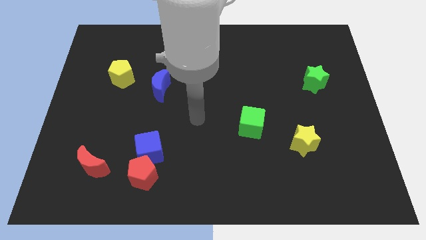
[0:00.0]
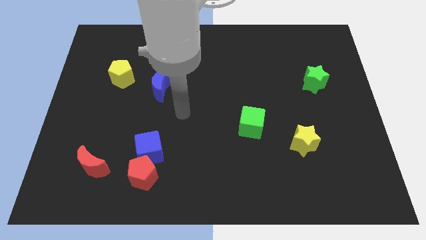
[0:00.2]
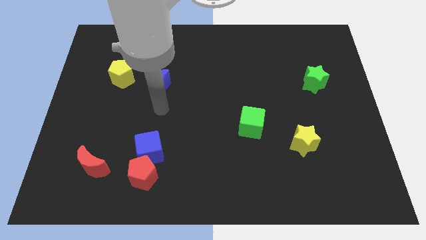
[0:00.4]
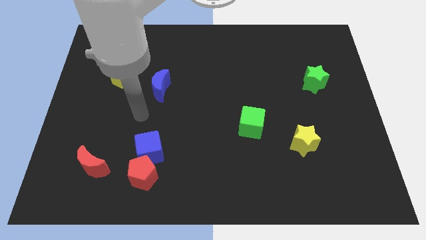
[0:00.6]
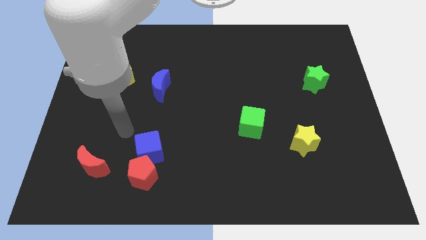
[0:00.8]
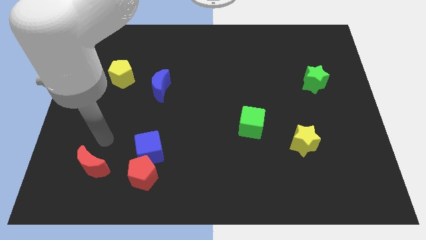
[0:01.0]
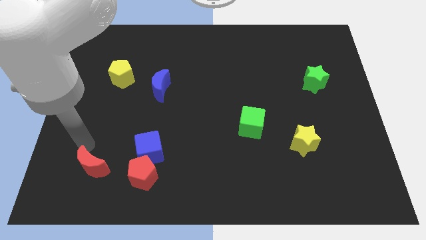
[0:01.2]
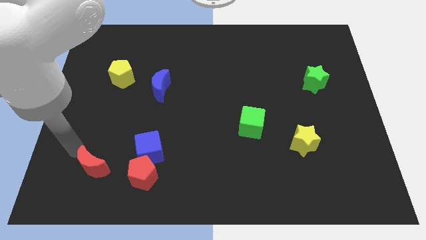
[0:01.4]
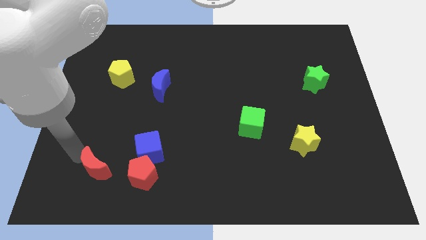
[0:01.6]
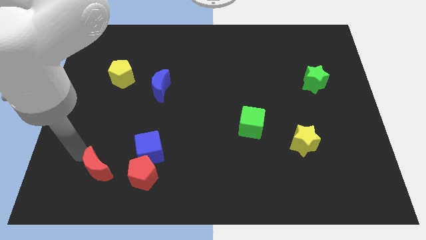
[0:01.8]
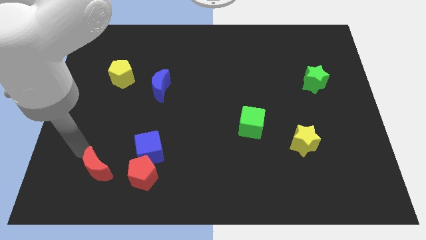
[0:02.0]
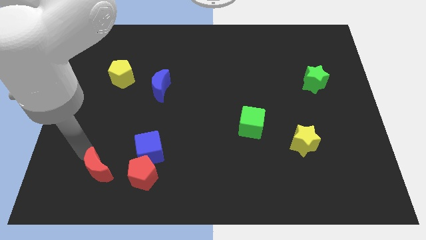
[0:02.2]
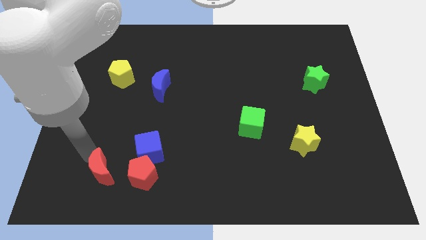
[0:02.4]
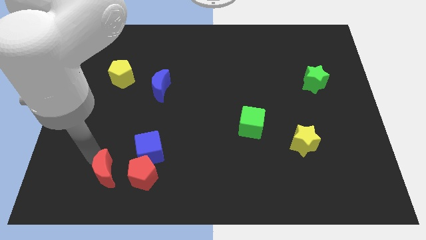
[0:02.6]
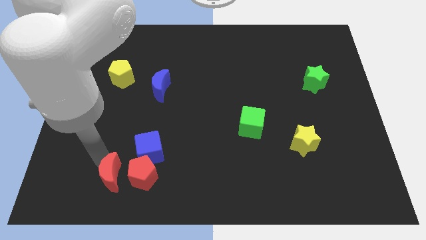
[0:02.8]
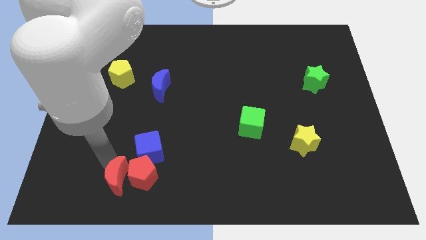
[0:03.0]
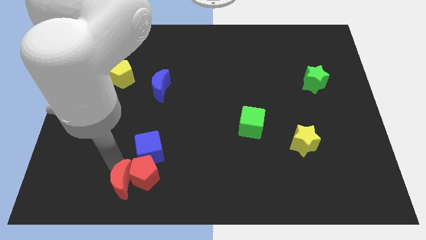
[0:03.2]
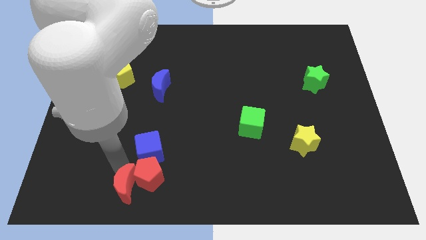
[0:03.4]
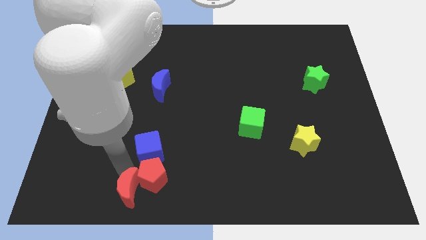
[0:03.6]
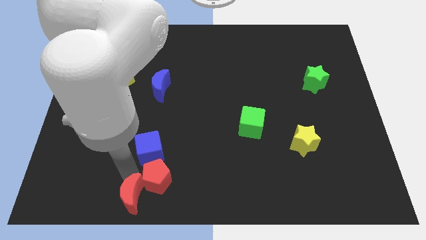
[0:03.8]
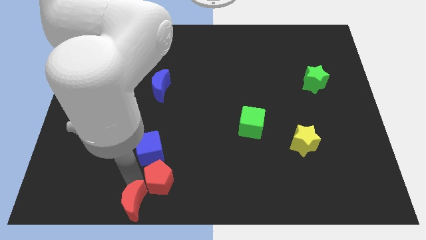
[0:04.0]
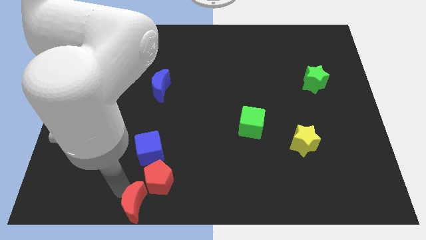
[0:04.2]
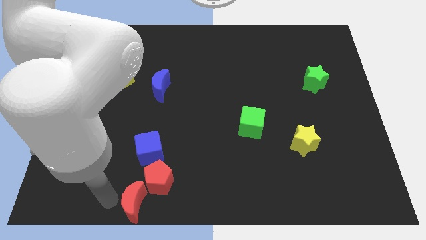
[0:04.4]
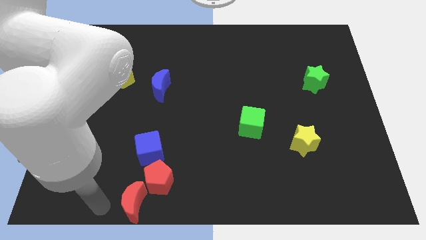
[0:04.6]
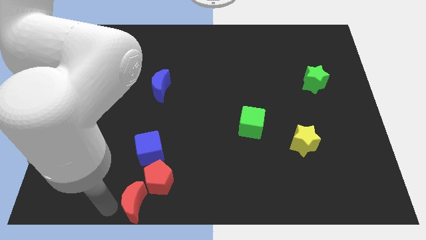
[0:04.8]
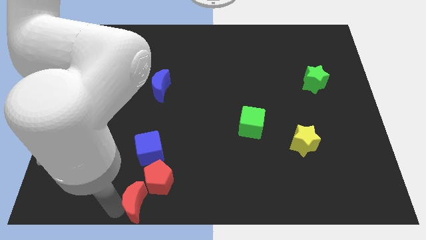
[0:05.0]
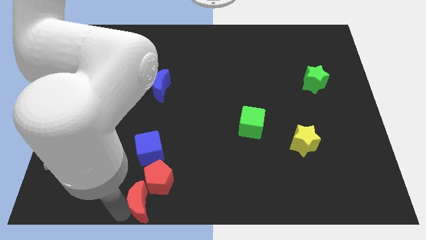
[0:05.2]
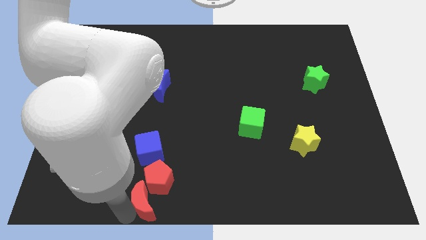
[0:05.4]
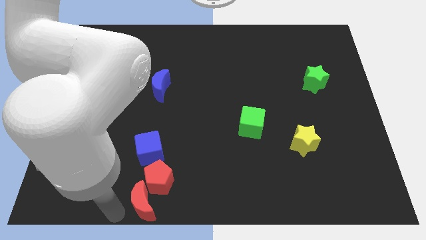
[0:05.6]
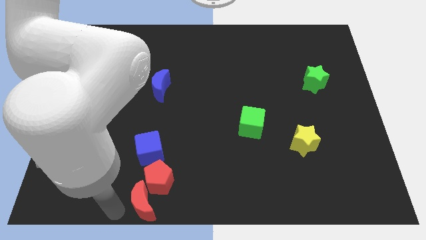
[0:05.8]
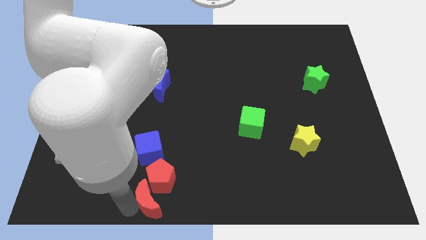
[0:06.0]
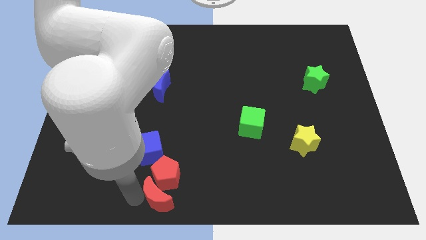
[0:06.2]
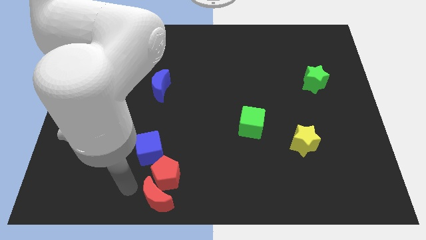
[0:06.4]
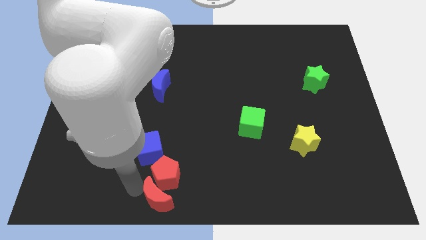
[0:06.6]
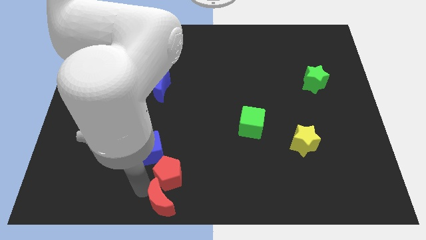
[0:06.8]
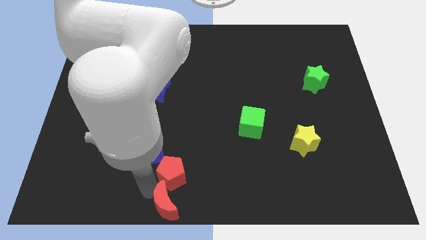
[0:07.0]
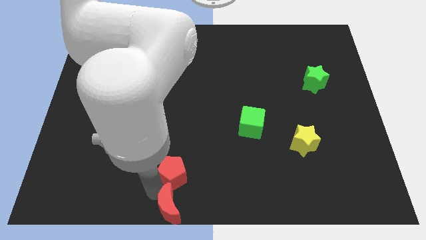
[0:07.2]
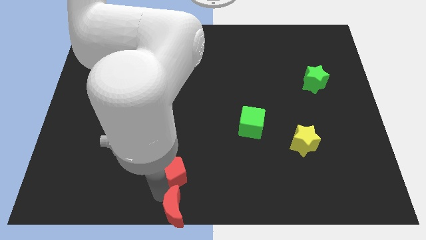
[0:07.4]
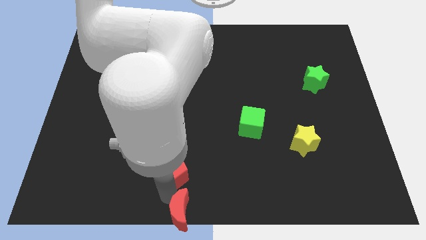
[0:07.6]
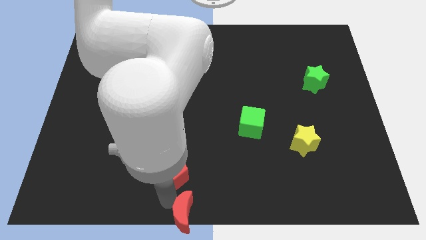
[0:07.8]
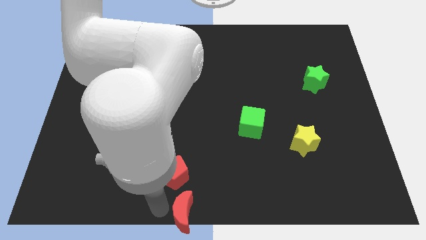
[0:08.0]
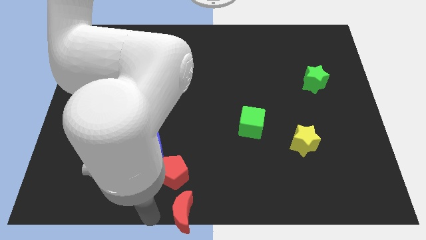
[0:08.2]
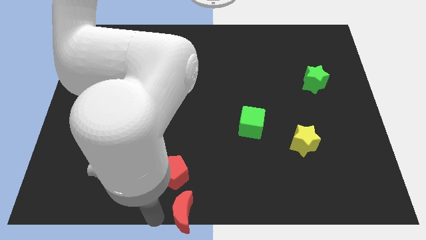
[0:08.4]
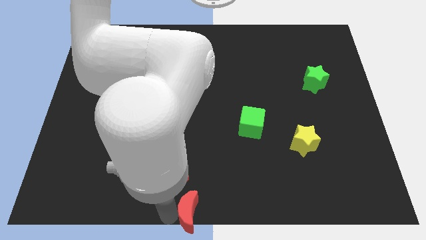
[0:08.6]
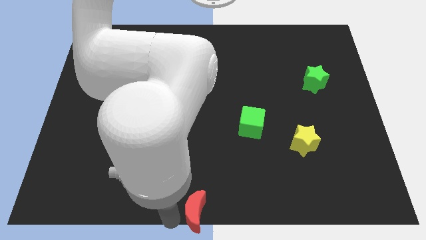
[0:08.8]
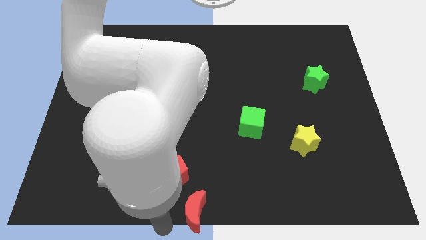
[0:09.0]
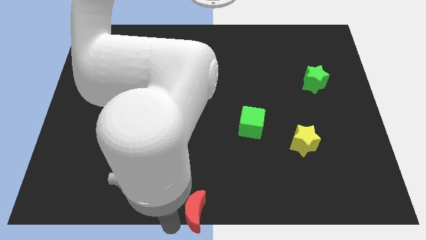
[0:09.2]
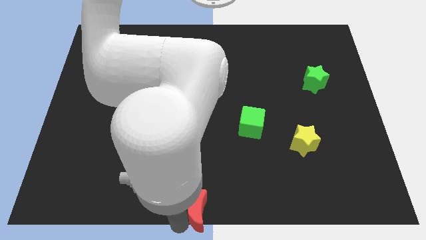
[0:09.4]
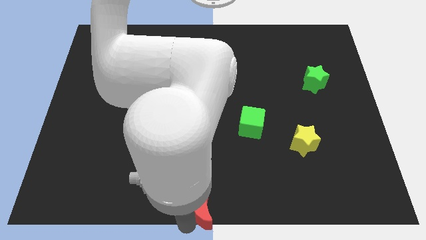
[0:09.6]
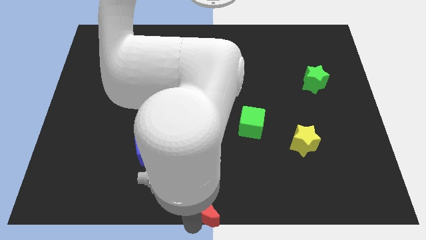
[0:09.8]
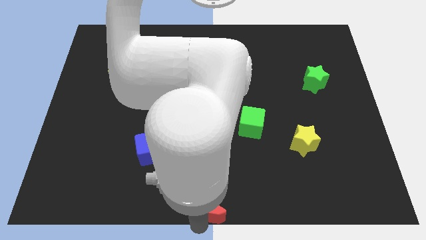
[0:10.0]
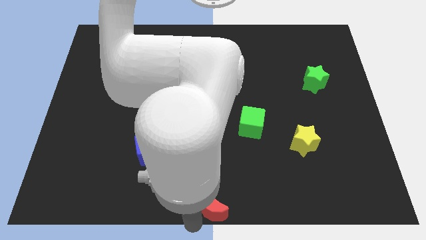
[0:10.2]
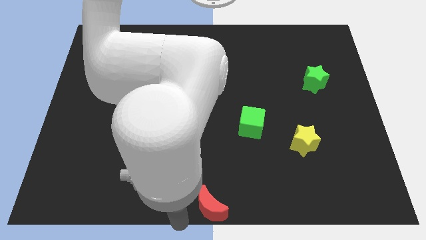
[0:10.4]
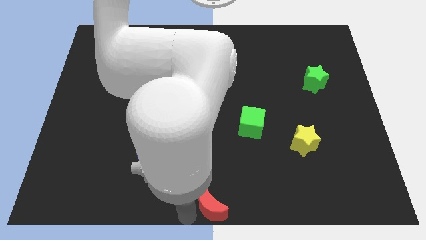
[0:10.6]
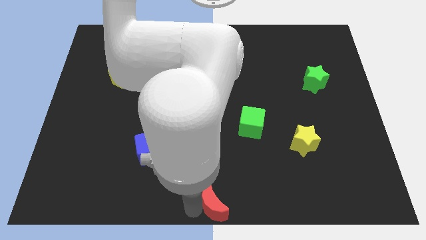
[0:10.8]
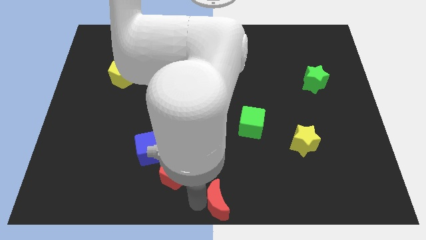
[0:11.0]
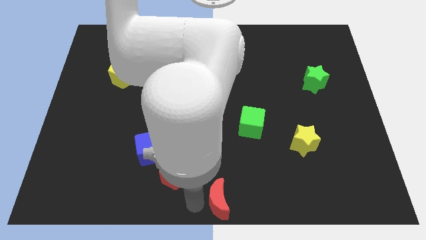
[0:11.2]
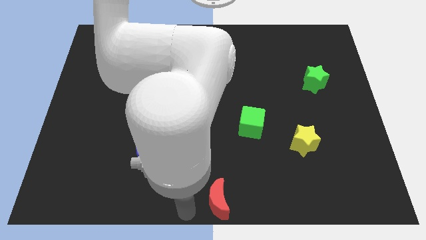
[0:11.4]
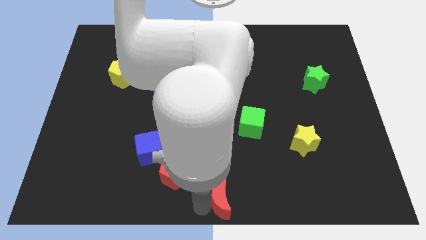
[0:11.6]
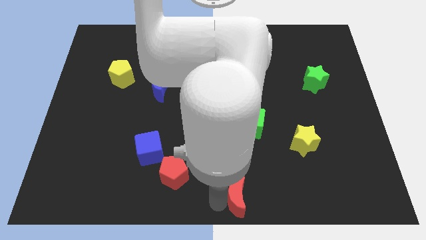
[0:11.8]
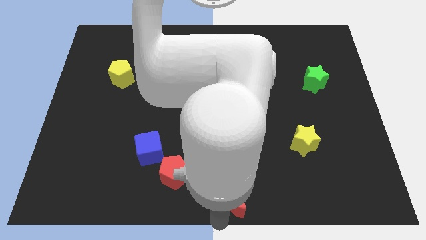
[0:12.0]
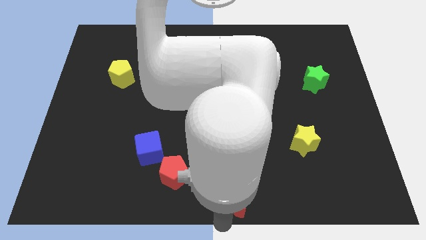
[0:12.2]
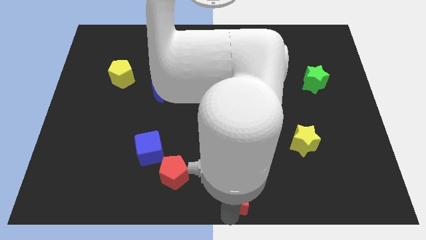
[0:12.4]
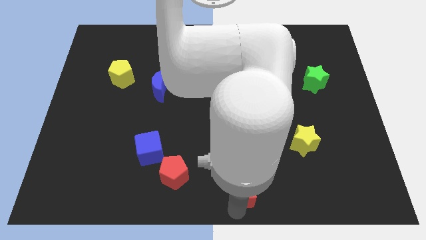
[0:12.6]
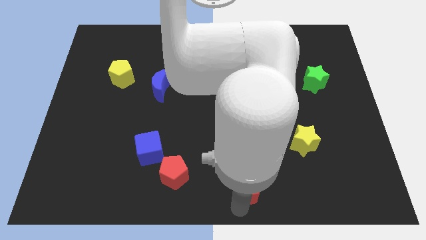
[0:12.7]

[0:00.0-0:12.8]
slide the red moon to the bottom of the green cube

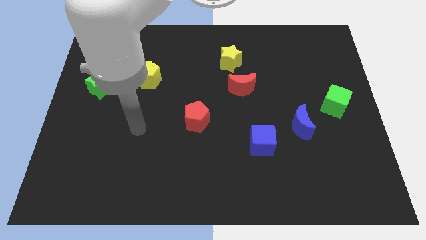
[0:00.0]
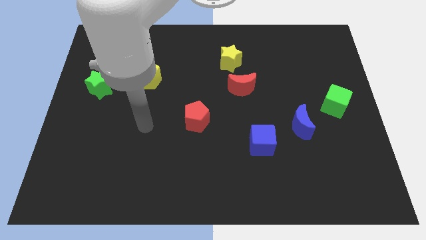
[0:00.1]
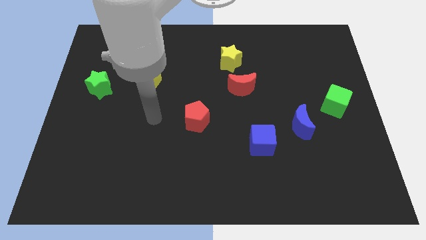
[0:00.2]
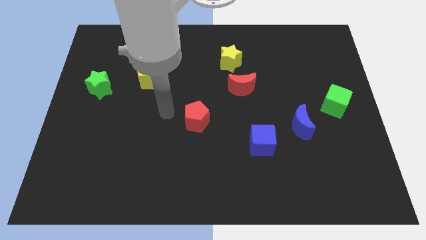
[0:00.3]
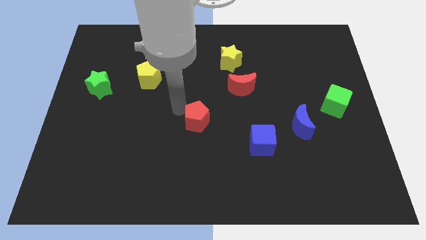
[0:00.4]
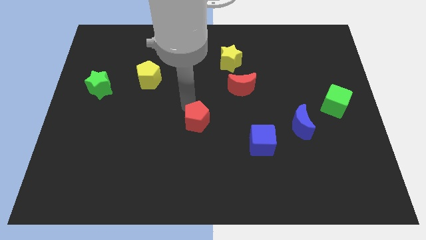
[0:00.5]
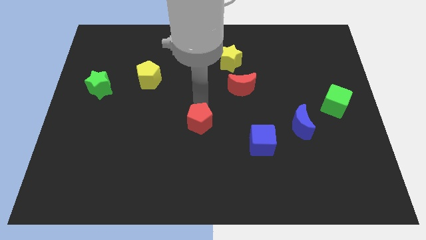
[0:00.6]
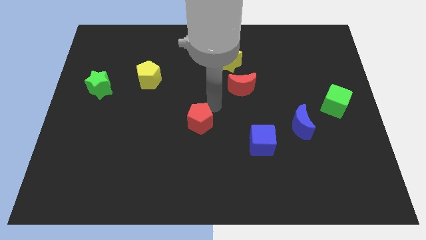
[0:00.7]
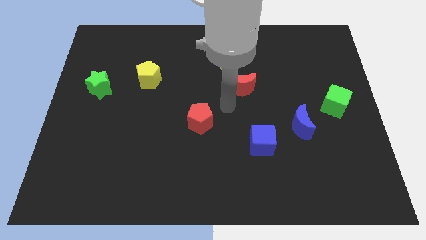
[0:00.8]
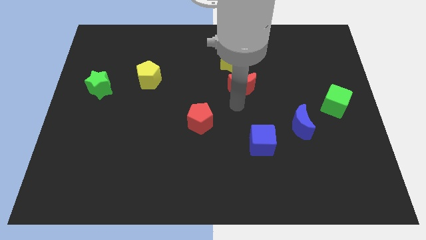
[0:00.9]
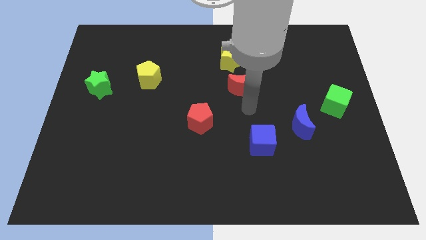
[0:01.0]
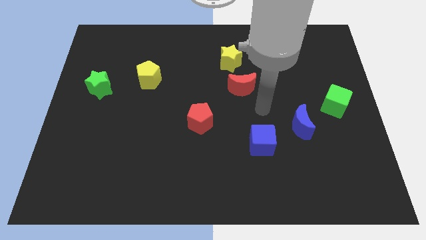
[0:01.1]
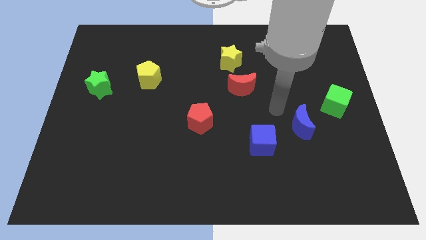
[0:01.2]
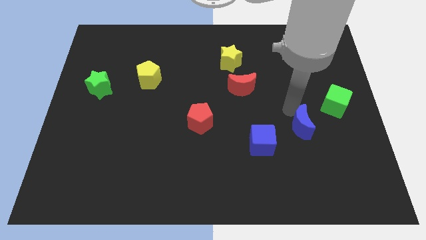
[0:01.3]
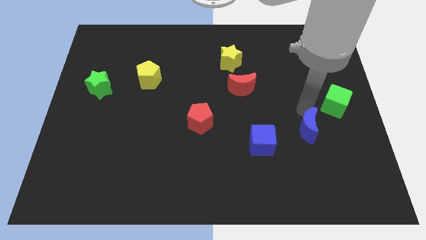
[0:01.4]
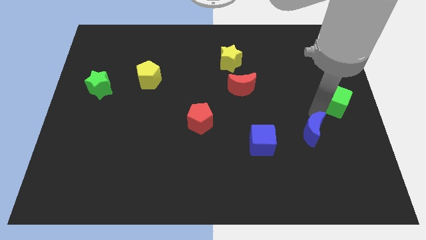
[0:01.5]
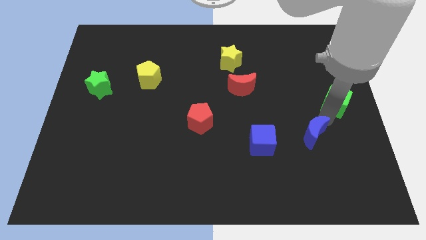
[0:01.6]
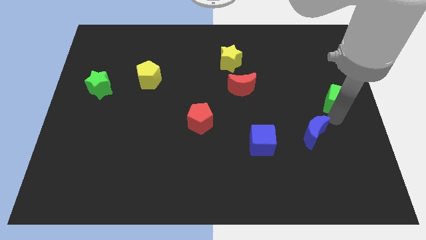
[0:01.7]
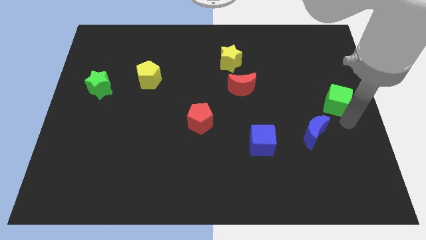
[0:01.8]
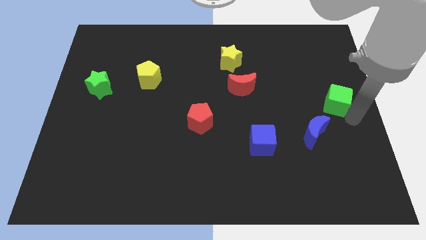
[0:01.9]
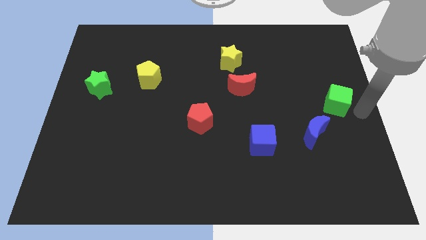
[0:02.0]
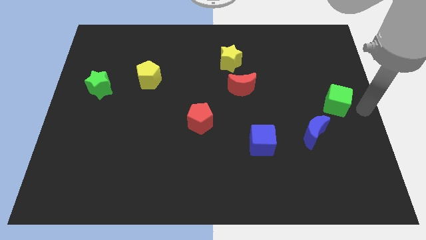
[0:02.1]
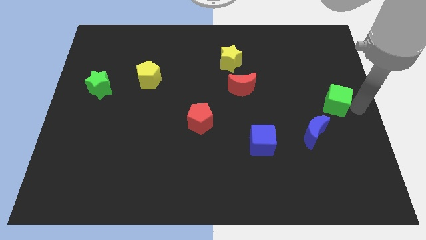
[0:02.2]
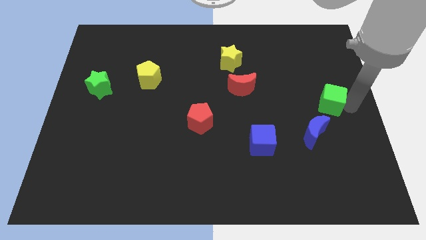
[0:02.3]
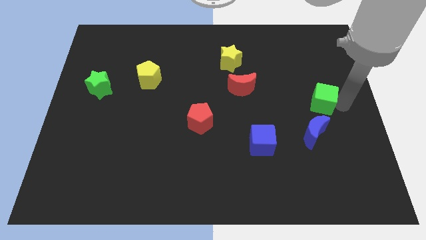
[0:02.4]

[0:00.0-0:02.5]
move the green cube above the blue moon
